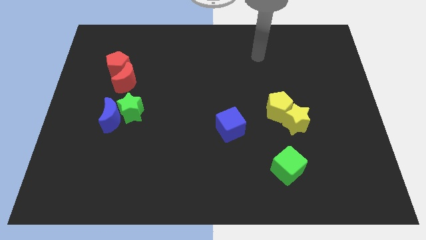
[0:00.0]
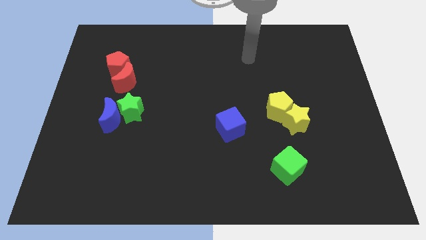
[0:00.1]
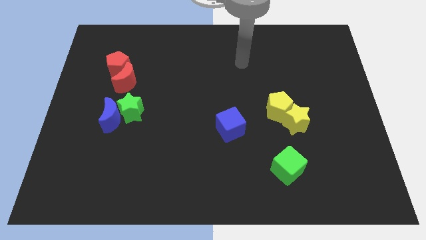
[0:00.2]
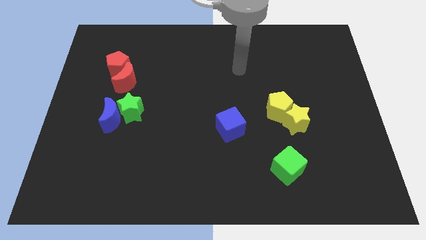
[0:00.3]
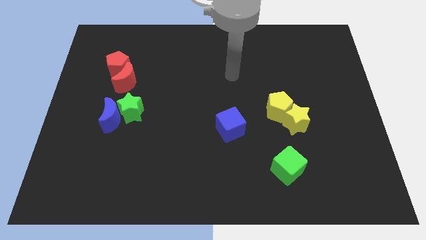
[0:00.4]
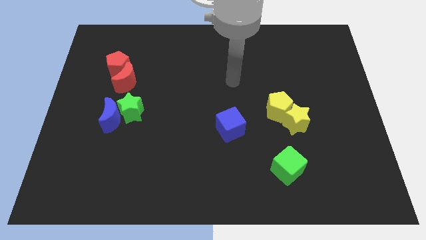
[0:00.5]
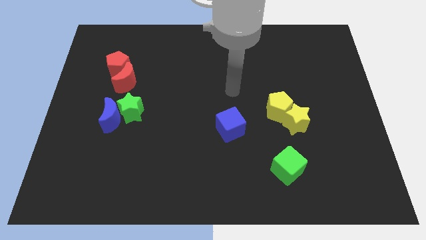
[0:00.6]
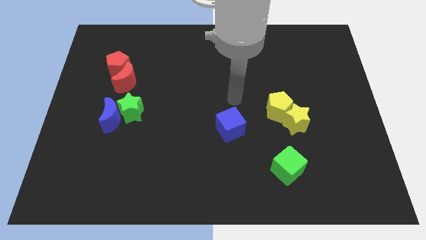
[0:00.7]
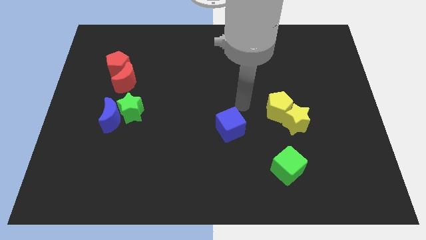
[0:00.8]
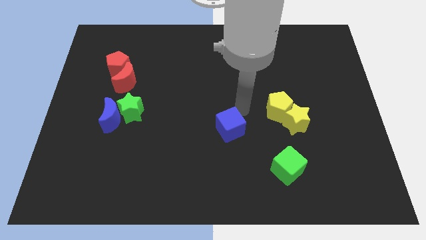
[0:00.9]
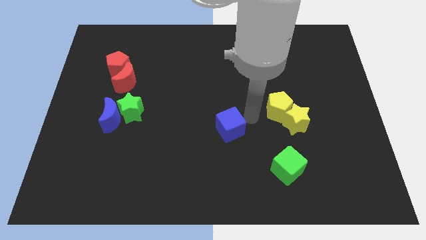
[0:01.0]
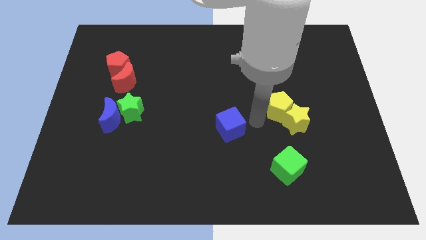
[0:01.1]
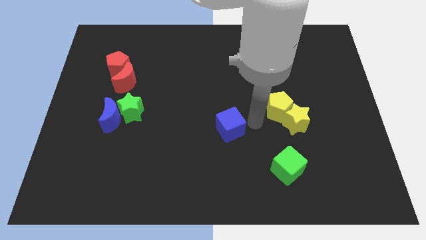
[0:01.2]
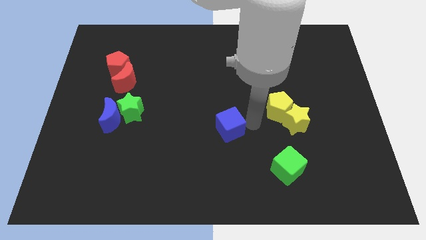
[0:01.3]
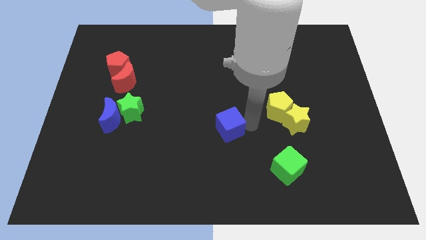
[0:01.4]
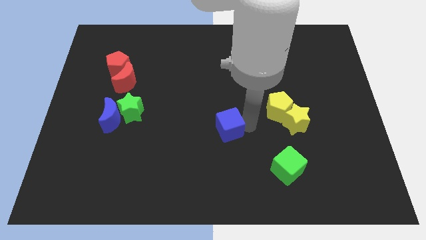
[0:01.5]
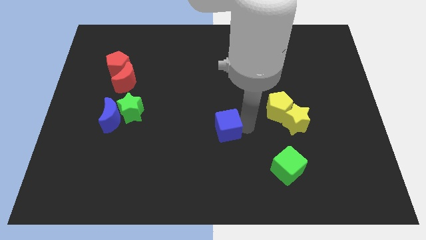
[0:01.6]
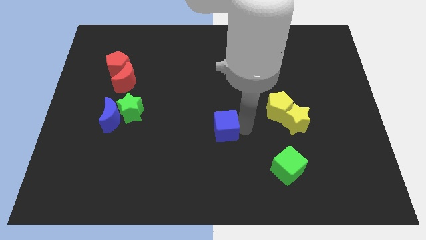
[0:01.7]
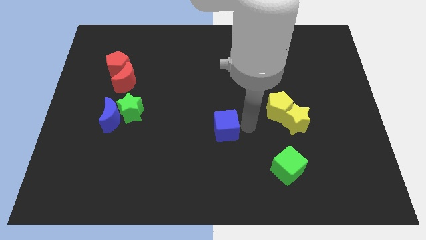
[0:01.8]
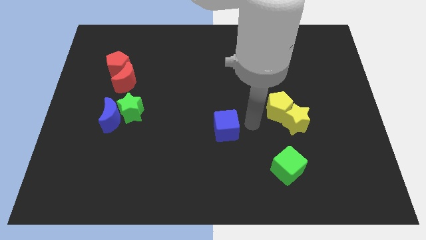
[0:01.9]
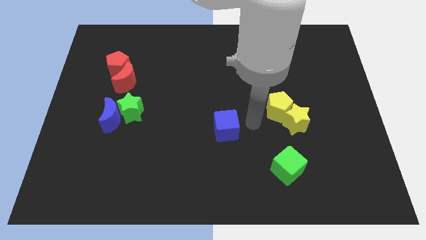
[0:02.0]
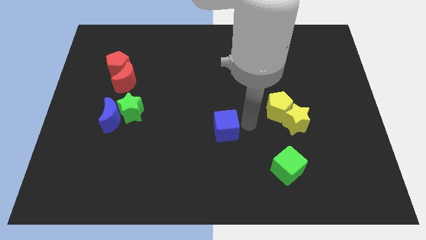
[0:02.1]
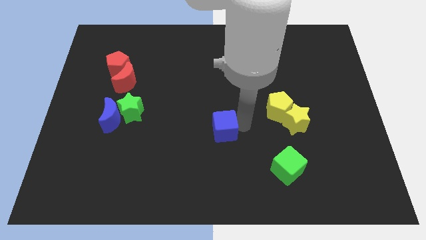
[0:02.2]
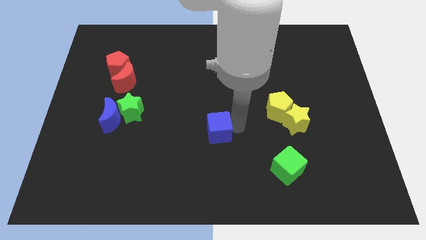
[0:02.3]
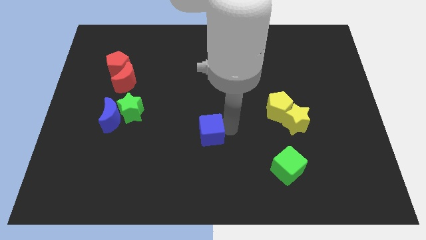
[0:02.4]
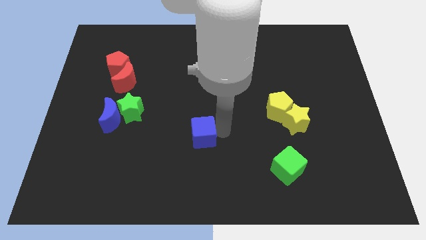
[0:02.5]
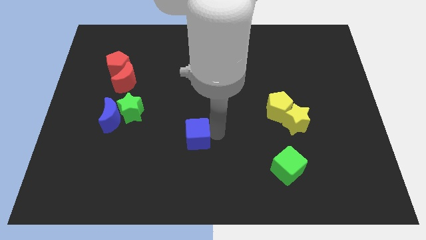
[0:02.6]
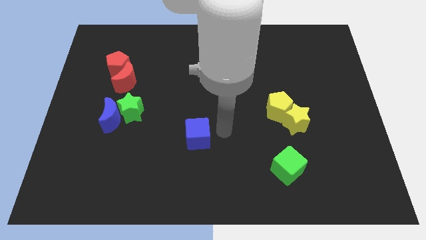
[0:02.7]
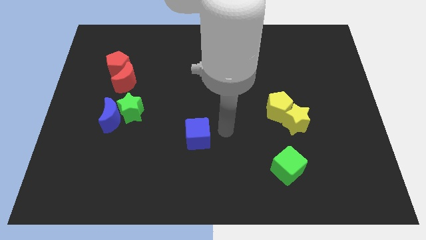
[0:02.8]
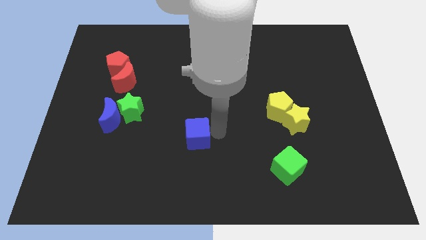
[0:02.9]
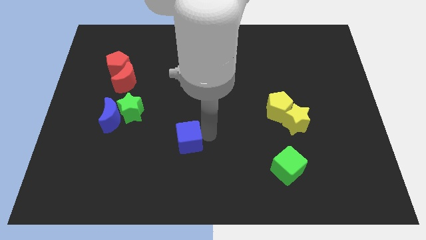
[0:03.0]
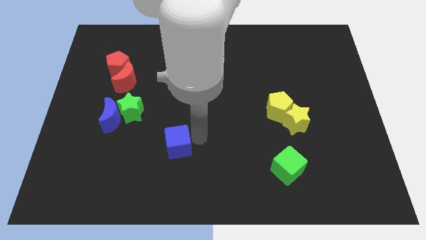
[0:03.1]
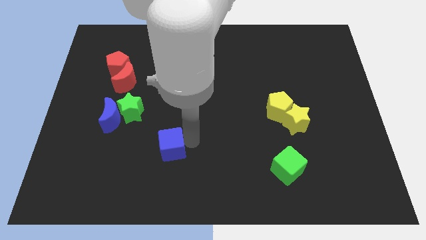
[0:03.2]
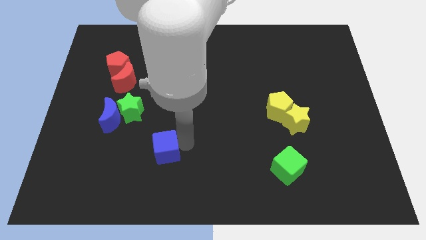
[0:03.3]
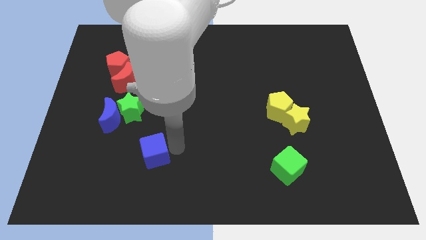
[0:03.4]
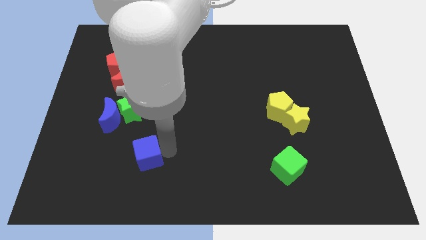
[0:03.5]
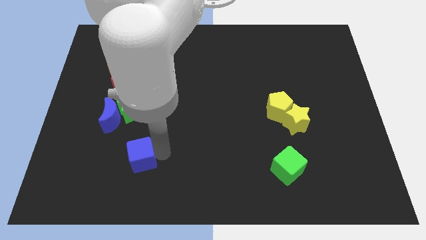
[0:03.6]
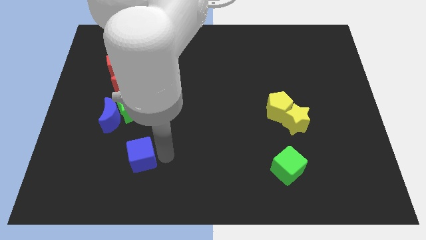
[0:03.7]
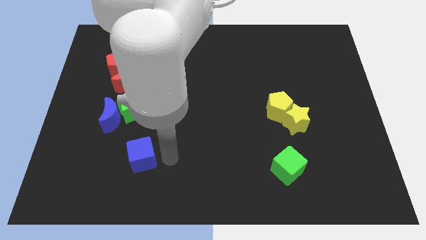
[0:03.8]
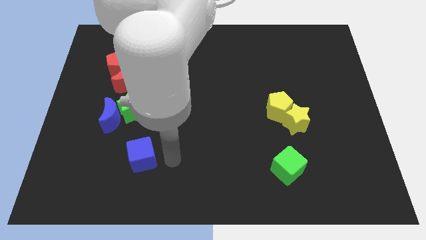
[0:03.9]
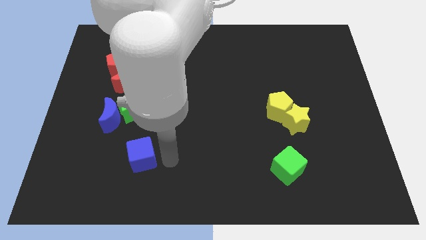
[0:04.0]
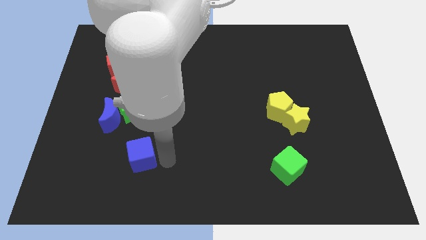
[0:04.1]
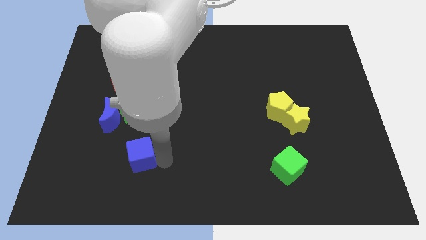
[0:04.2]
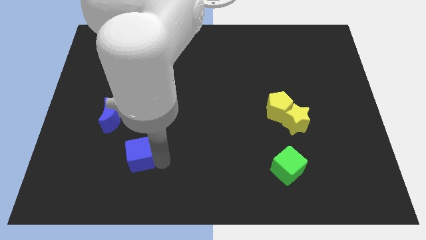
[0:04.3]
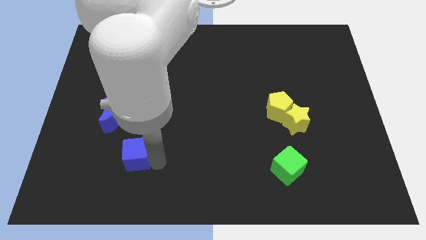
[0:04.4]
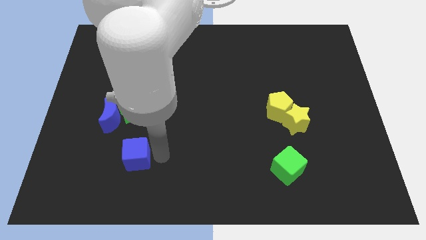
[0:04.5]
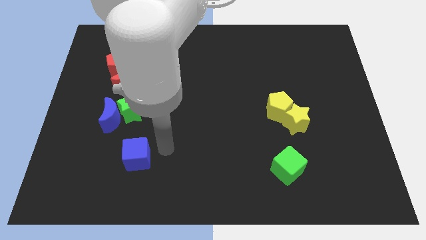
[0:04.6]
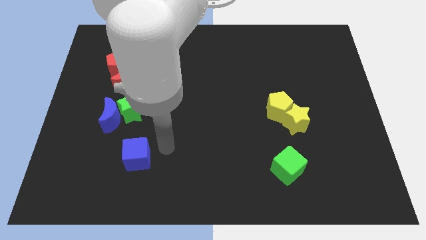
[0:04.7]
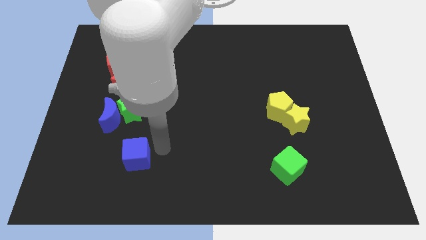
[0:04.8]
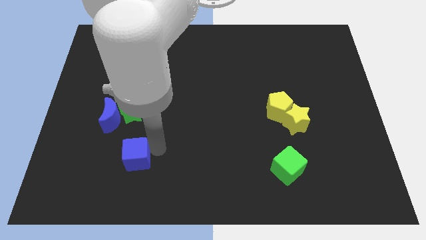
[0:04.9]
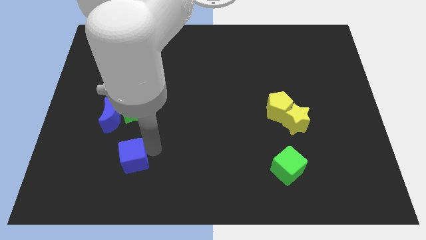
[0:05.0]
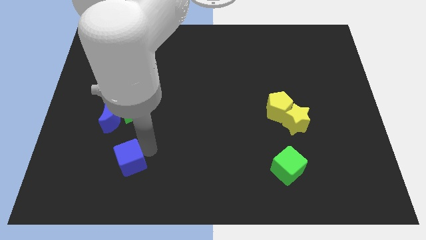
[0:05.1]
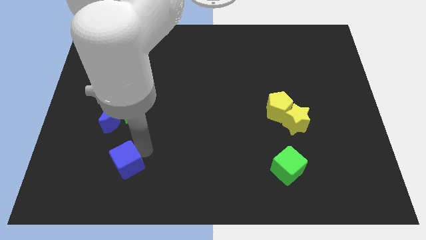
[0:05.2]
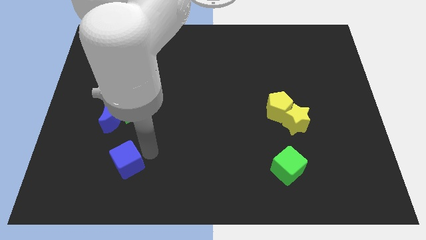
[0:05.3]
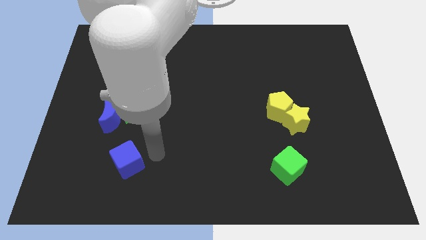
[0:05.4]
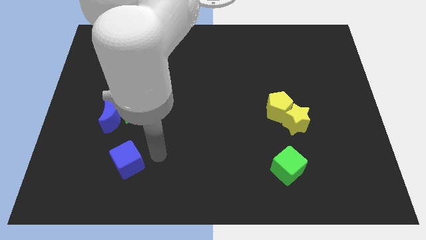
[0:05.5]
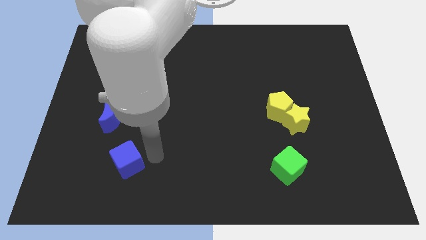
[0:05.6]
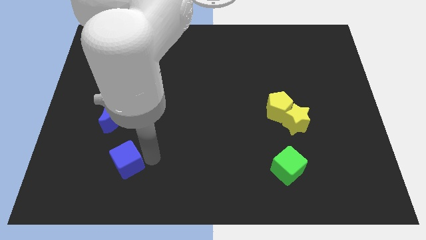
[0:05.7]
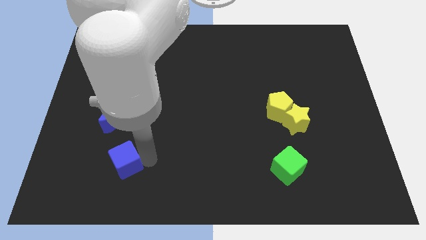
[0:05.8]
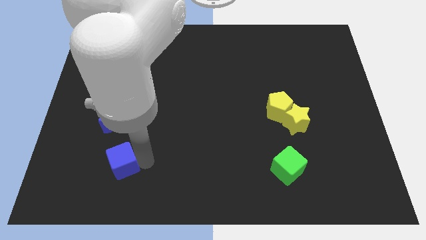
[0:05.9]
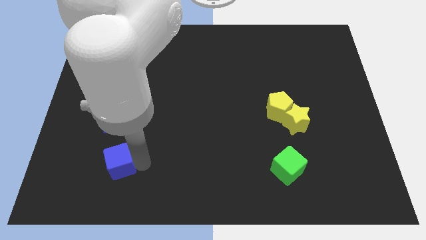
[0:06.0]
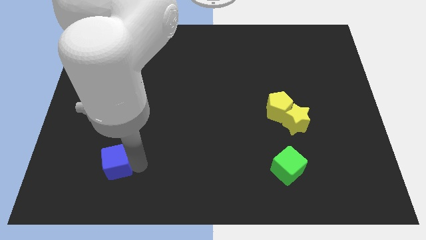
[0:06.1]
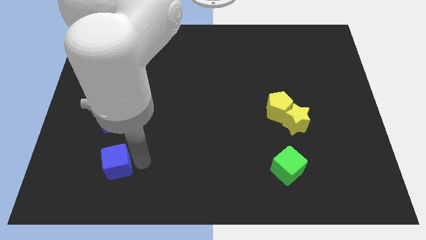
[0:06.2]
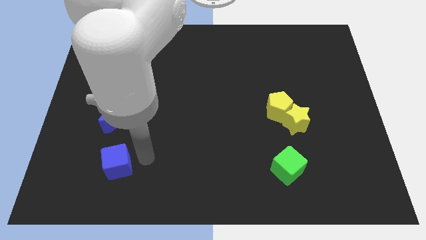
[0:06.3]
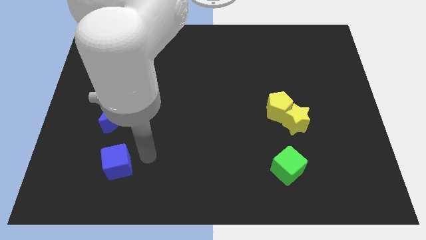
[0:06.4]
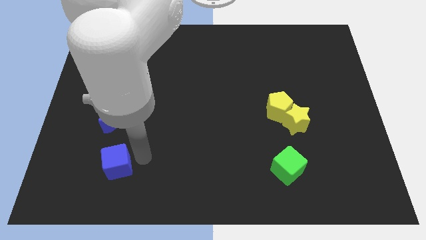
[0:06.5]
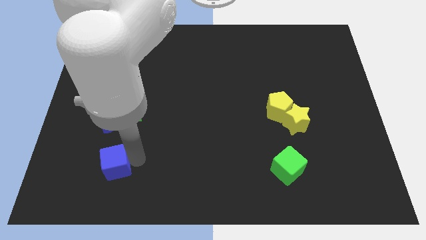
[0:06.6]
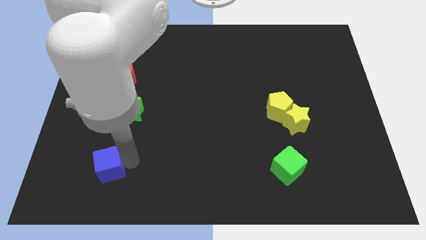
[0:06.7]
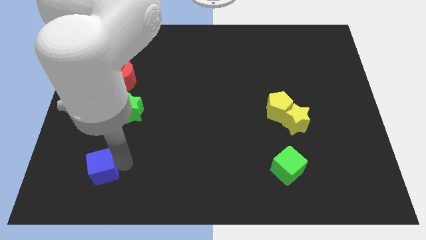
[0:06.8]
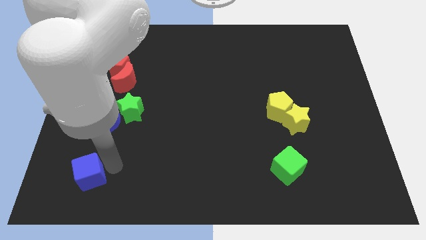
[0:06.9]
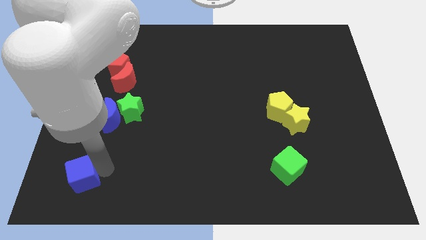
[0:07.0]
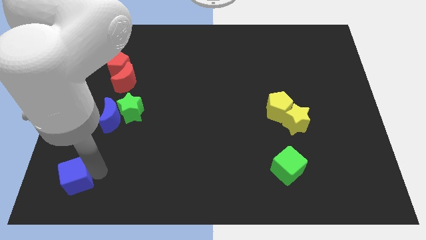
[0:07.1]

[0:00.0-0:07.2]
move the blue cube to the bottom left corner

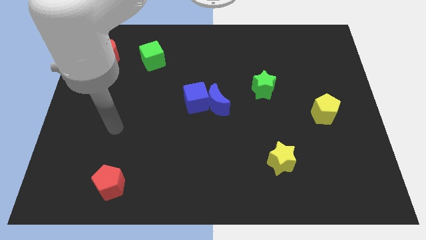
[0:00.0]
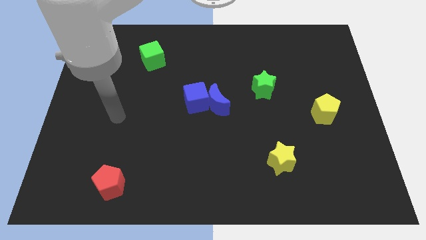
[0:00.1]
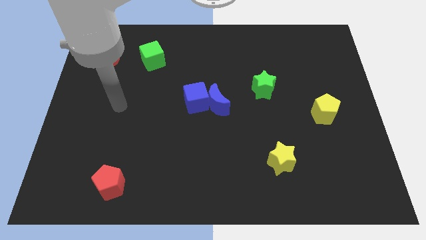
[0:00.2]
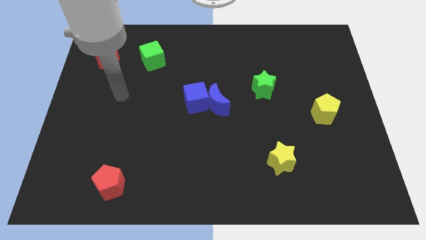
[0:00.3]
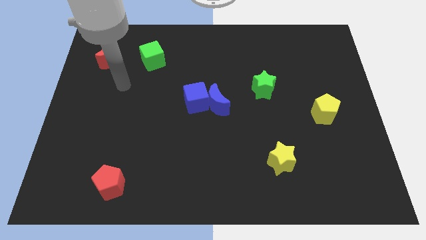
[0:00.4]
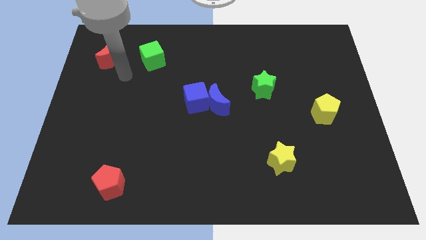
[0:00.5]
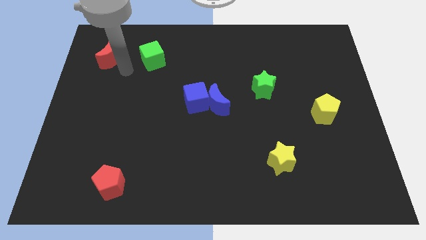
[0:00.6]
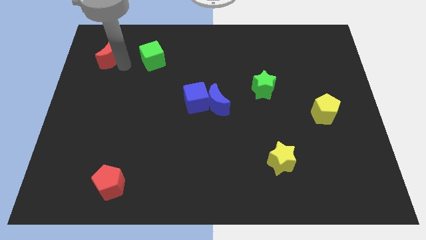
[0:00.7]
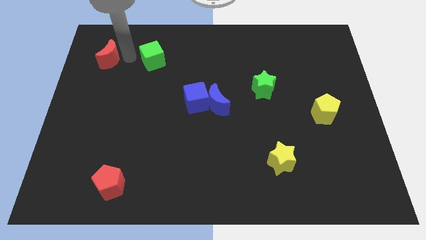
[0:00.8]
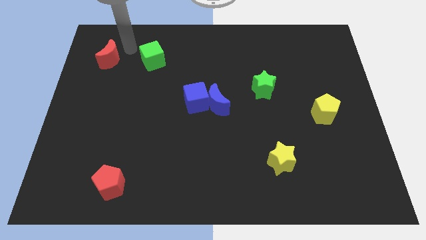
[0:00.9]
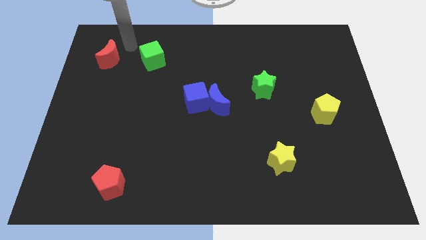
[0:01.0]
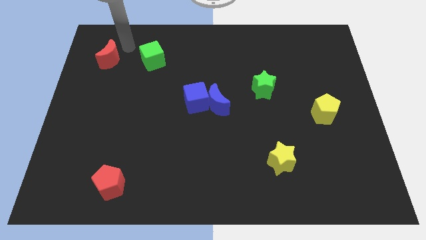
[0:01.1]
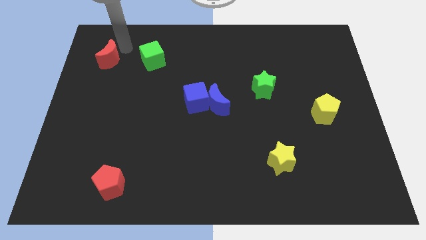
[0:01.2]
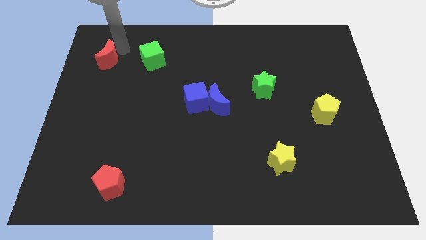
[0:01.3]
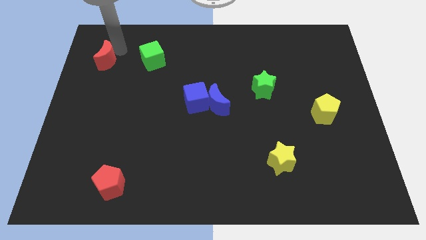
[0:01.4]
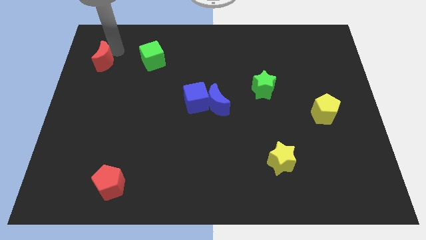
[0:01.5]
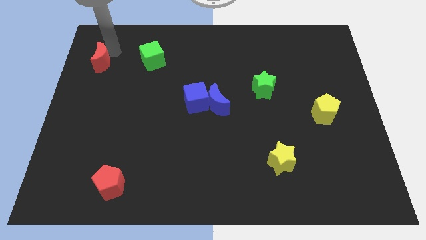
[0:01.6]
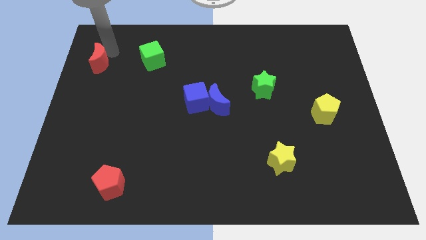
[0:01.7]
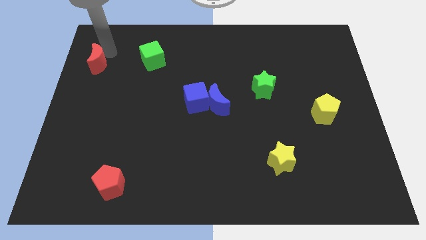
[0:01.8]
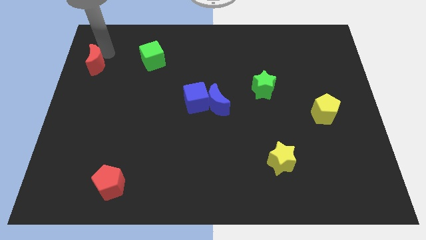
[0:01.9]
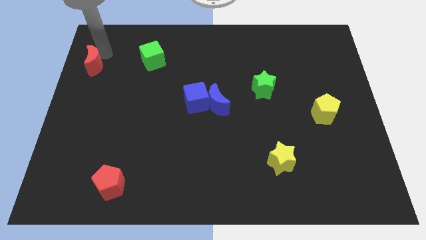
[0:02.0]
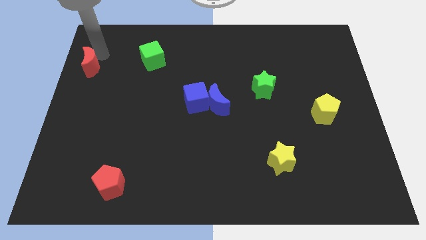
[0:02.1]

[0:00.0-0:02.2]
put the red moon to the center left
